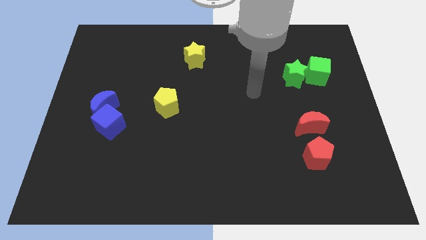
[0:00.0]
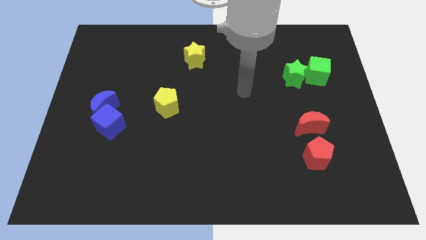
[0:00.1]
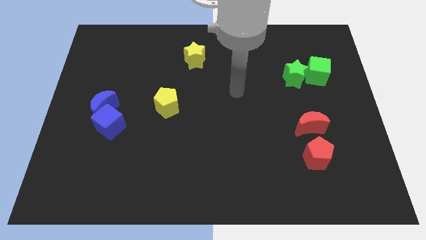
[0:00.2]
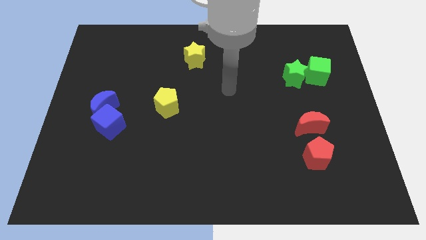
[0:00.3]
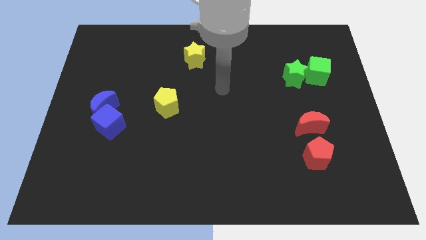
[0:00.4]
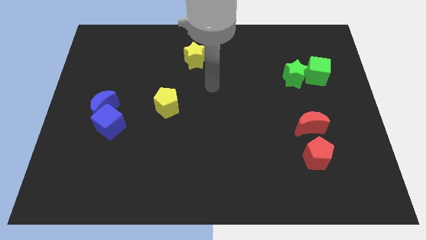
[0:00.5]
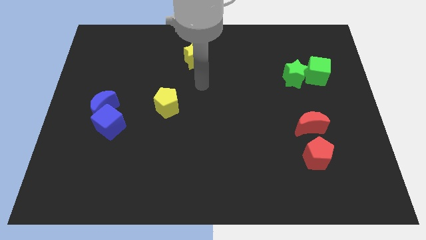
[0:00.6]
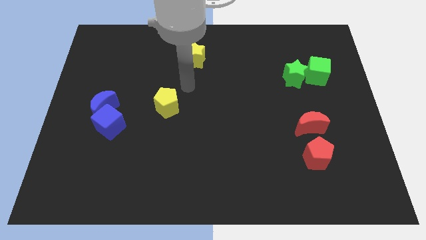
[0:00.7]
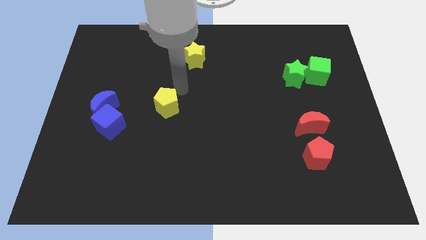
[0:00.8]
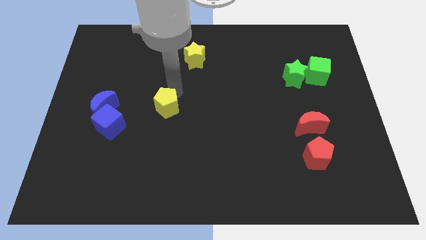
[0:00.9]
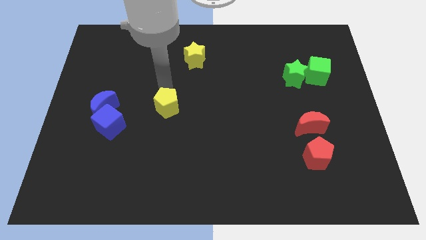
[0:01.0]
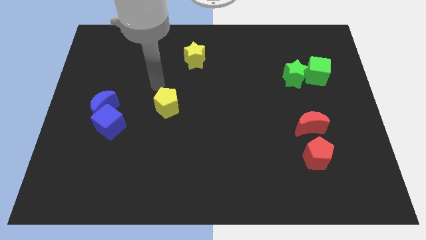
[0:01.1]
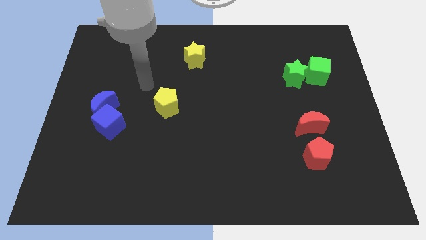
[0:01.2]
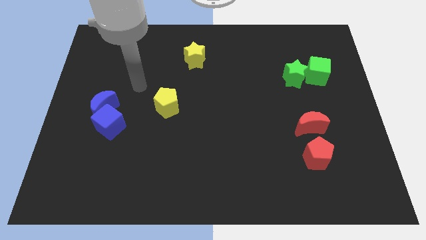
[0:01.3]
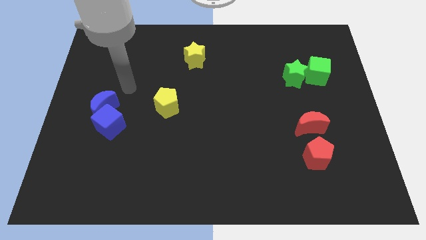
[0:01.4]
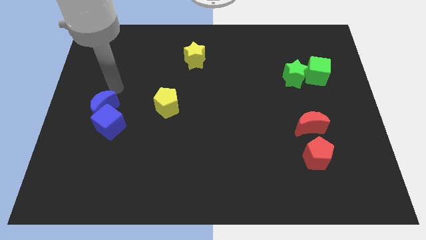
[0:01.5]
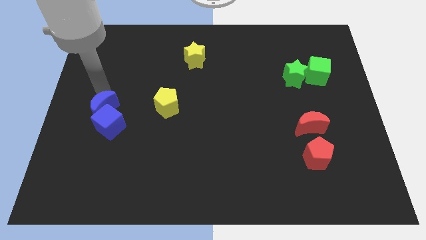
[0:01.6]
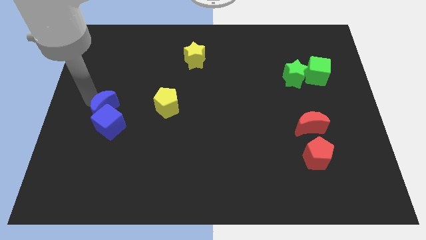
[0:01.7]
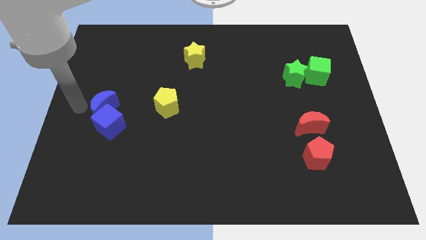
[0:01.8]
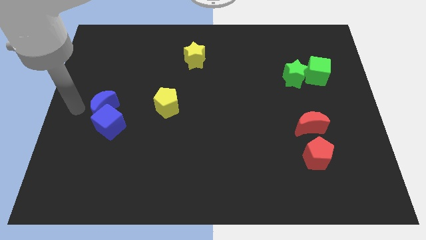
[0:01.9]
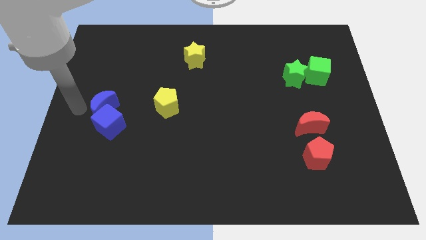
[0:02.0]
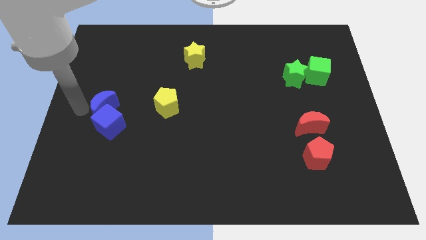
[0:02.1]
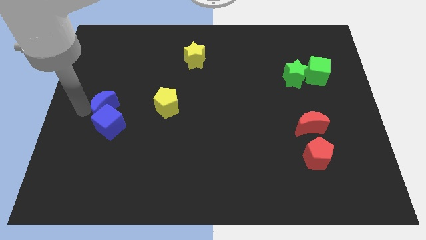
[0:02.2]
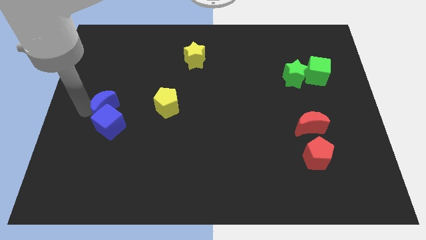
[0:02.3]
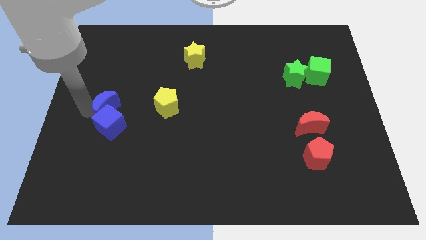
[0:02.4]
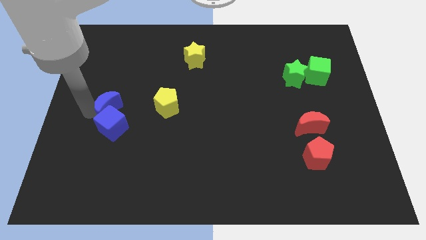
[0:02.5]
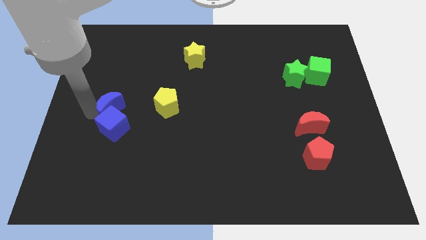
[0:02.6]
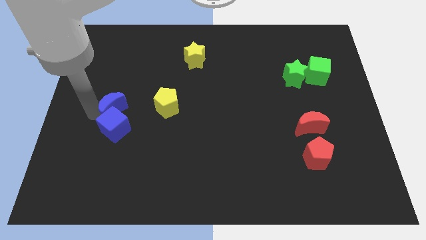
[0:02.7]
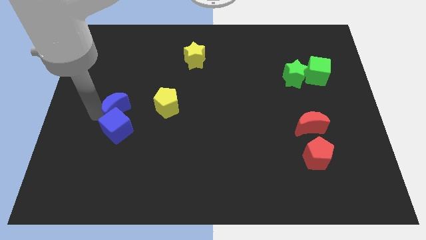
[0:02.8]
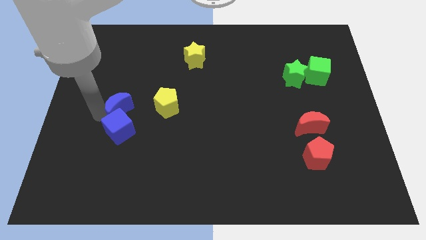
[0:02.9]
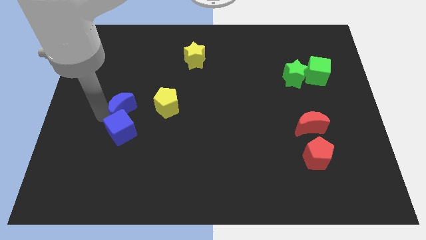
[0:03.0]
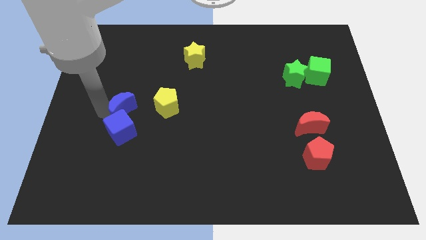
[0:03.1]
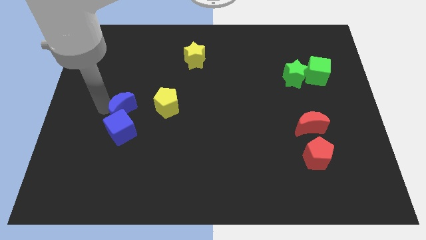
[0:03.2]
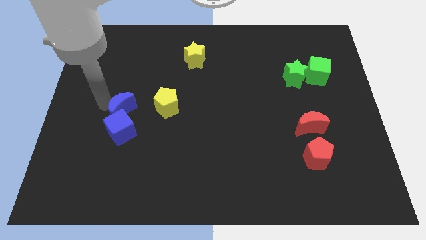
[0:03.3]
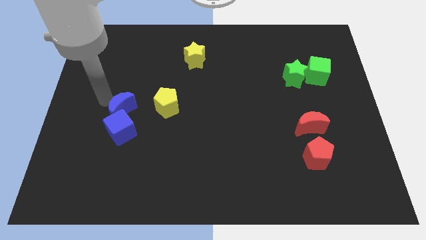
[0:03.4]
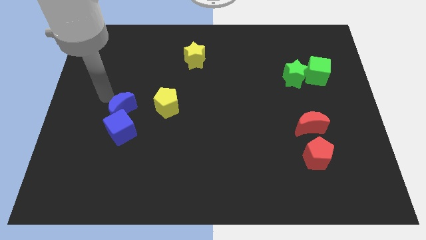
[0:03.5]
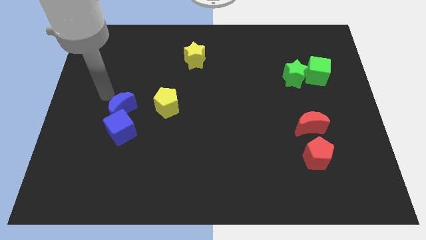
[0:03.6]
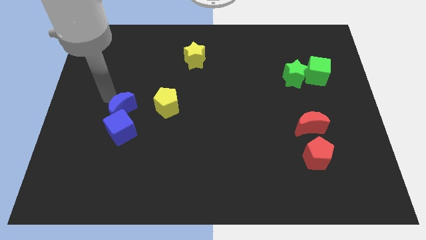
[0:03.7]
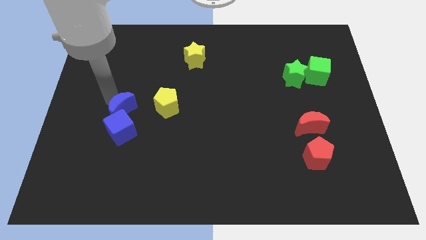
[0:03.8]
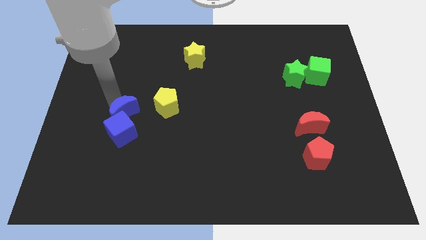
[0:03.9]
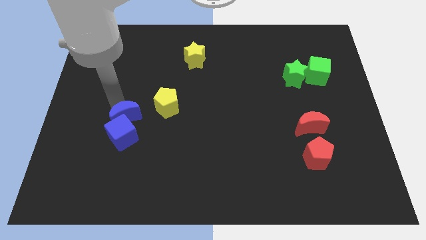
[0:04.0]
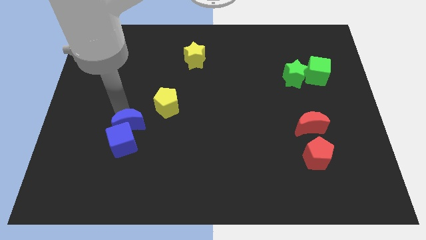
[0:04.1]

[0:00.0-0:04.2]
slightly slide the blue moon down and right

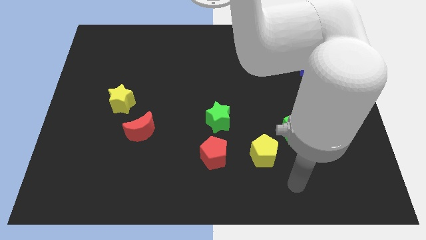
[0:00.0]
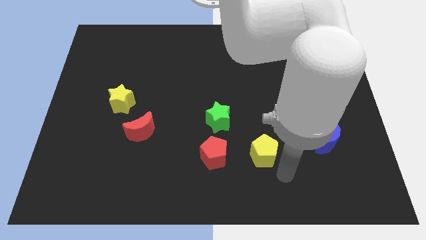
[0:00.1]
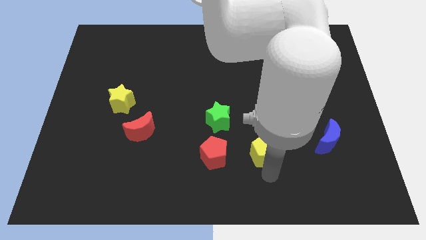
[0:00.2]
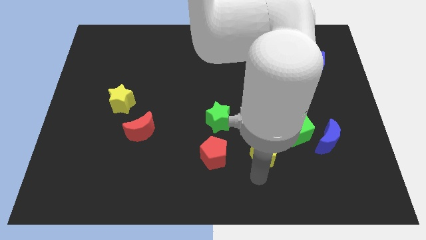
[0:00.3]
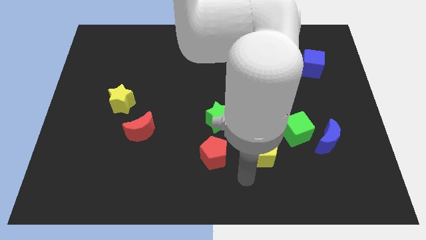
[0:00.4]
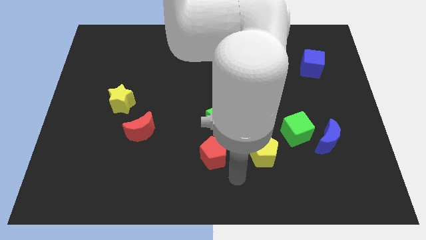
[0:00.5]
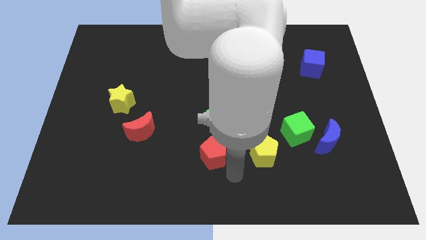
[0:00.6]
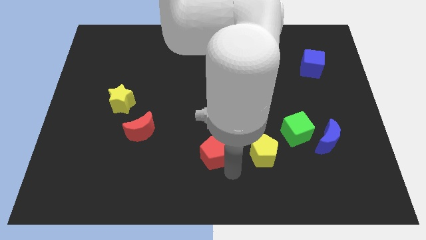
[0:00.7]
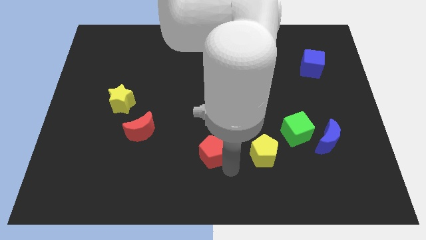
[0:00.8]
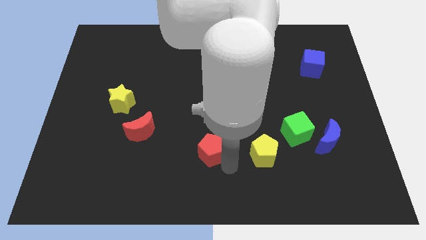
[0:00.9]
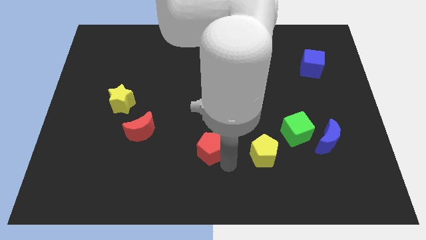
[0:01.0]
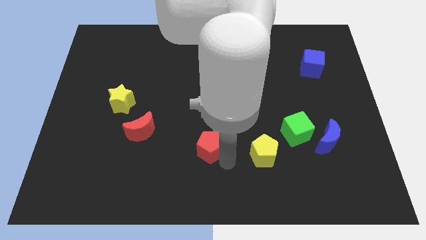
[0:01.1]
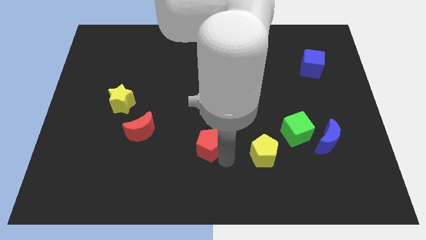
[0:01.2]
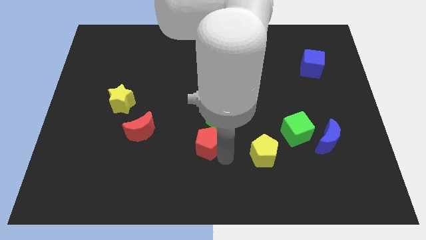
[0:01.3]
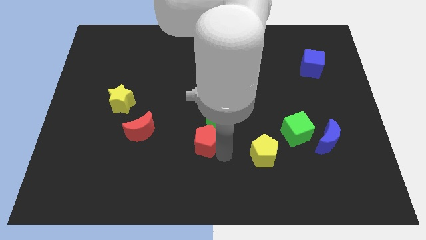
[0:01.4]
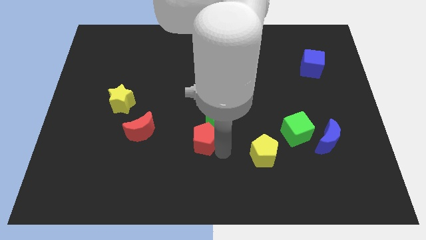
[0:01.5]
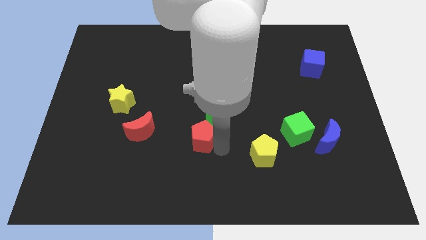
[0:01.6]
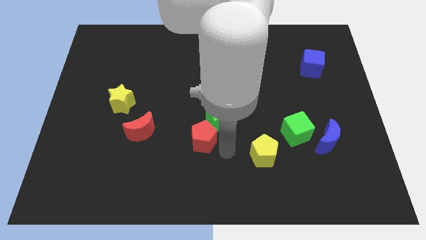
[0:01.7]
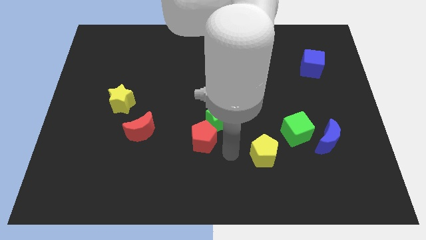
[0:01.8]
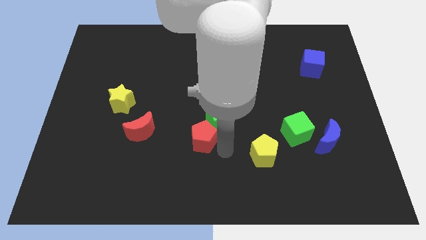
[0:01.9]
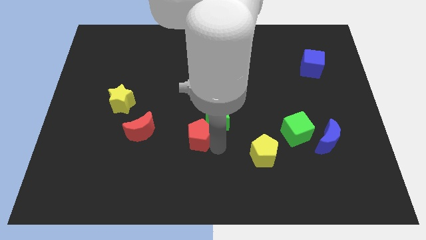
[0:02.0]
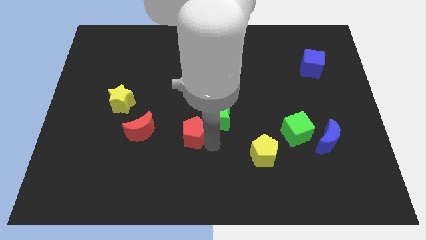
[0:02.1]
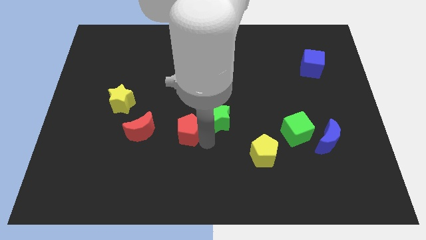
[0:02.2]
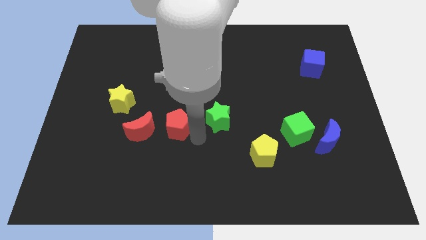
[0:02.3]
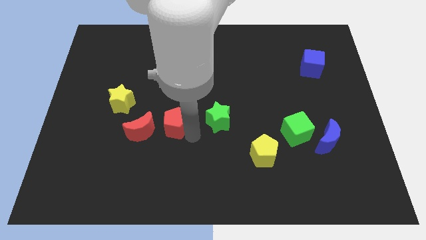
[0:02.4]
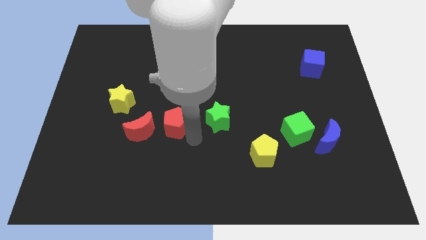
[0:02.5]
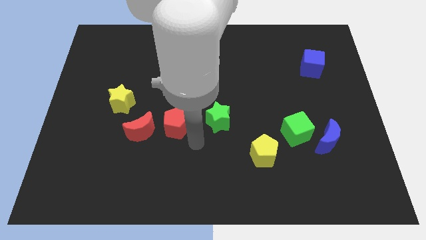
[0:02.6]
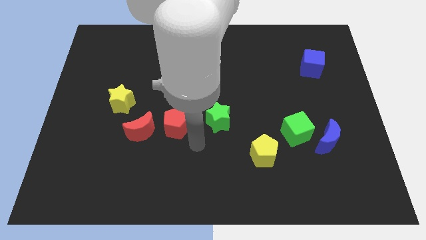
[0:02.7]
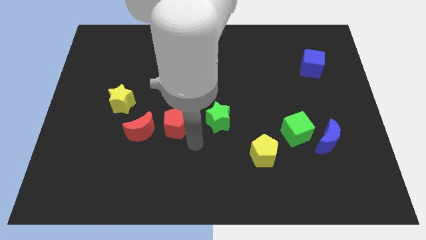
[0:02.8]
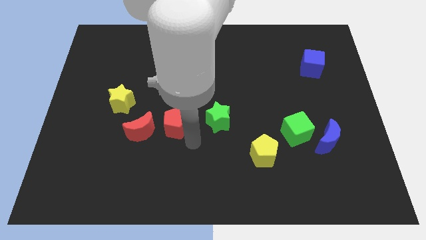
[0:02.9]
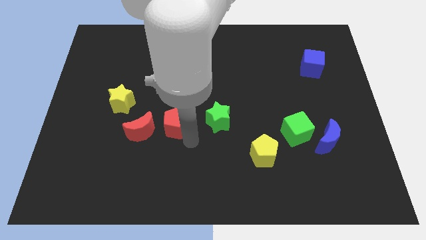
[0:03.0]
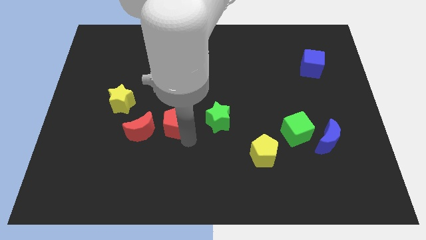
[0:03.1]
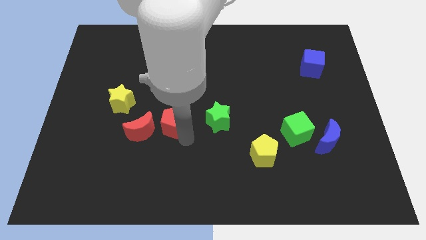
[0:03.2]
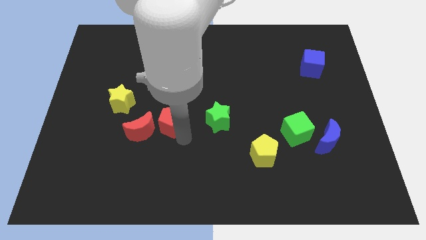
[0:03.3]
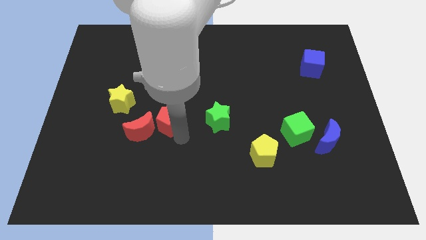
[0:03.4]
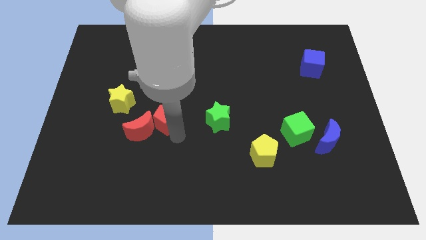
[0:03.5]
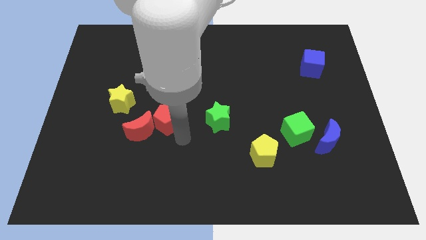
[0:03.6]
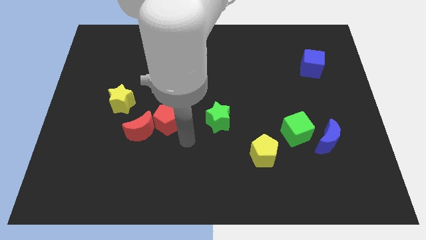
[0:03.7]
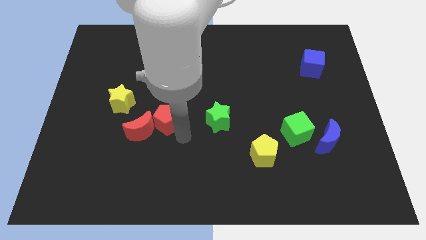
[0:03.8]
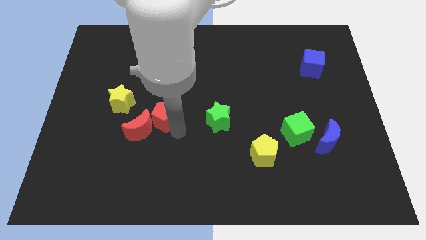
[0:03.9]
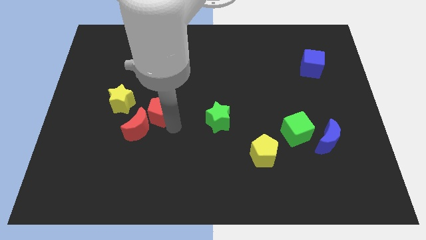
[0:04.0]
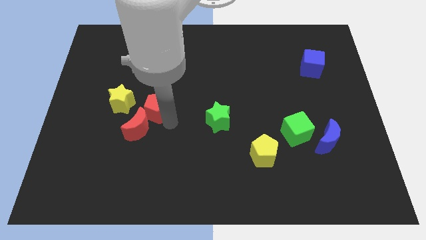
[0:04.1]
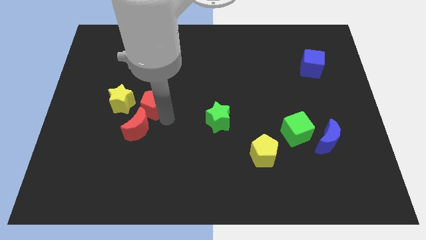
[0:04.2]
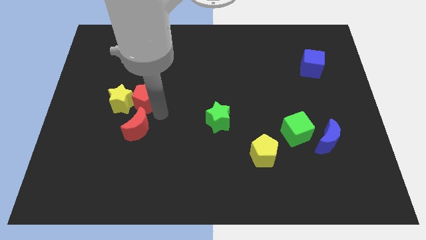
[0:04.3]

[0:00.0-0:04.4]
move the red pentagon upwards and to the left
